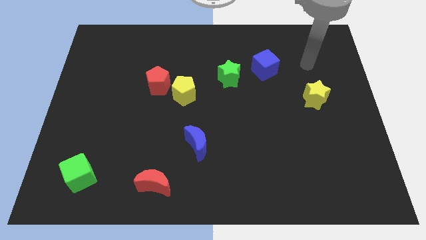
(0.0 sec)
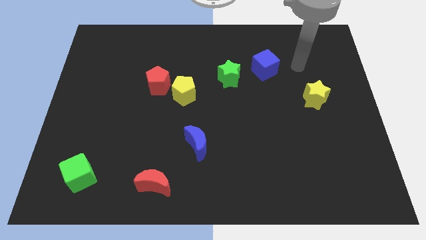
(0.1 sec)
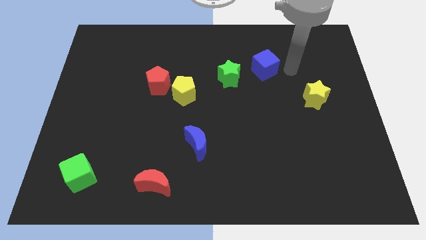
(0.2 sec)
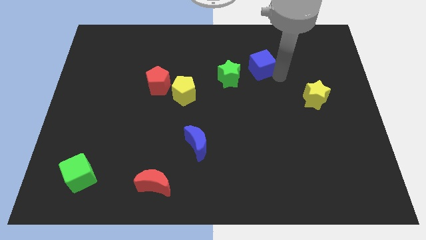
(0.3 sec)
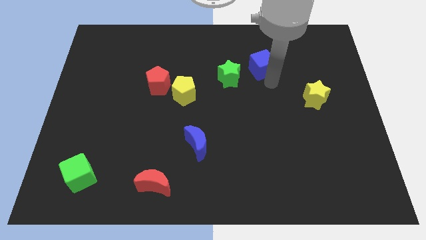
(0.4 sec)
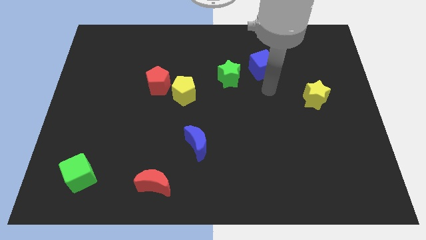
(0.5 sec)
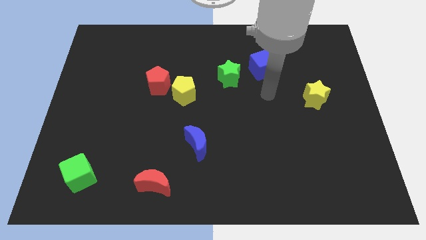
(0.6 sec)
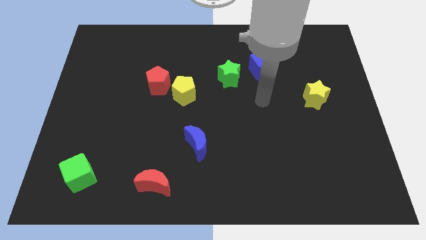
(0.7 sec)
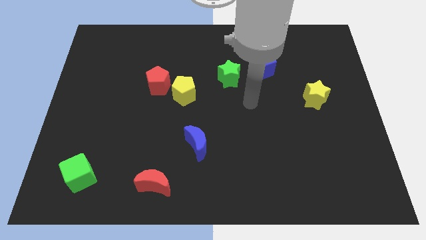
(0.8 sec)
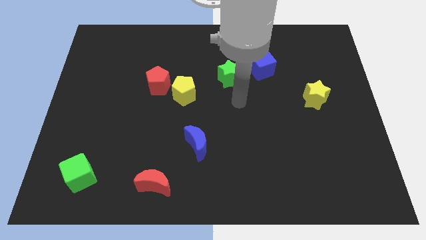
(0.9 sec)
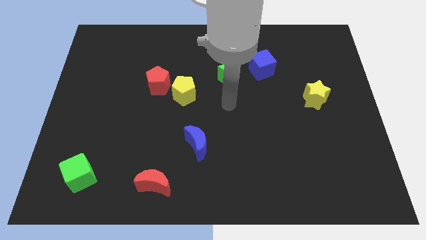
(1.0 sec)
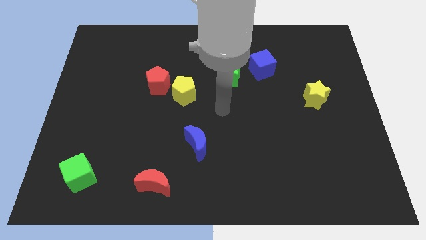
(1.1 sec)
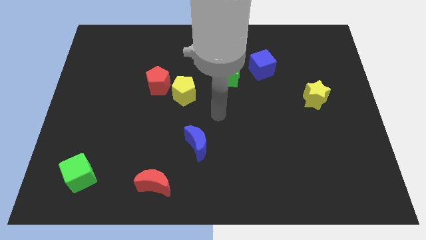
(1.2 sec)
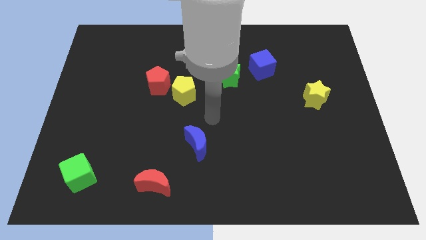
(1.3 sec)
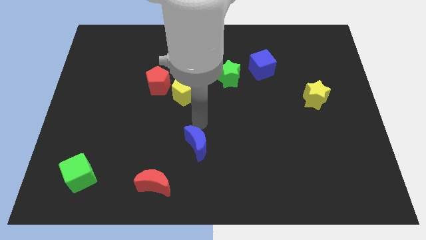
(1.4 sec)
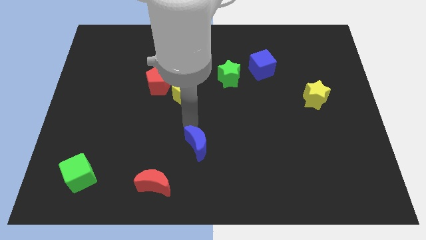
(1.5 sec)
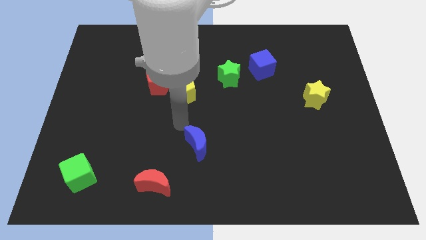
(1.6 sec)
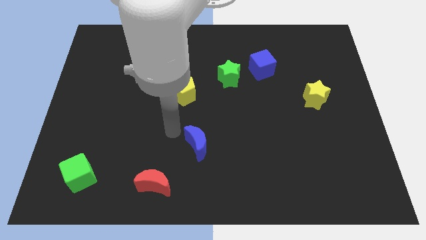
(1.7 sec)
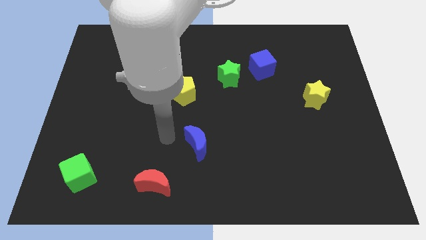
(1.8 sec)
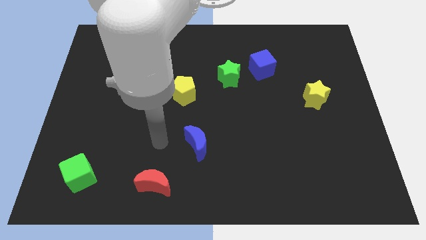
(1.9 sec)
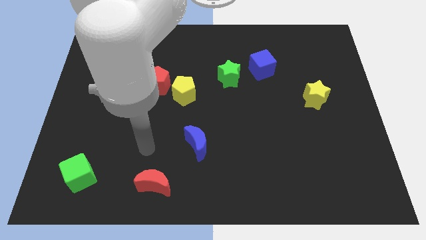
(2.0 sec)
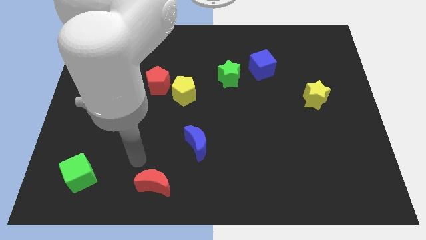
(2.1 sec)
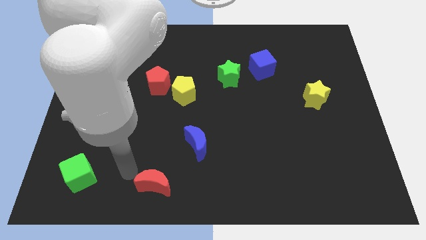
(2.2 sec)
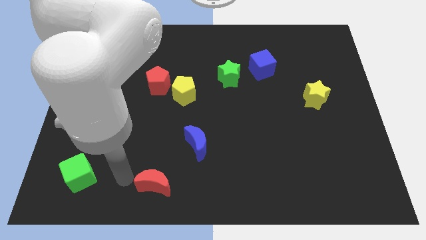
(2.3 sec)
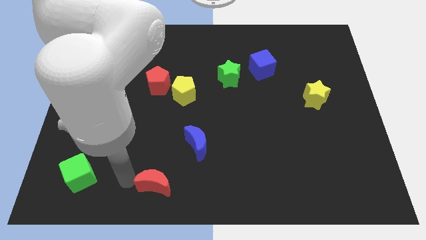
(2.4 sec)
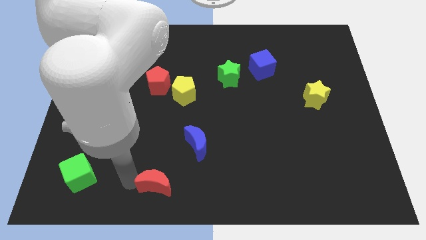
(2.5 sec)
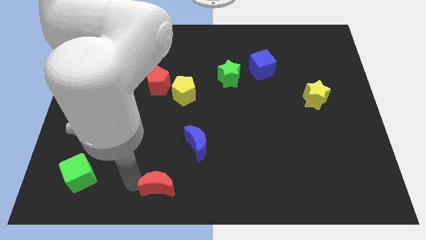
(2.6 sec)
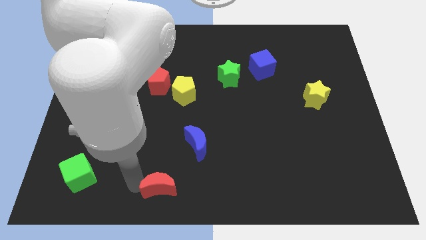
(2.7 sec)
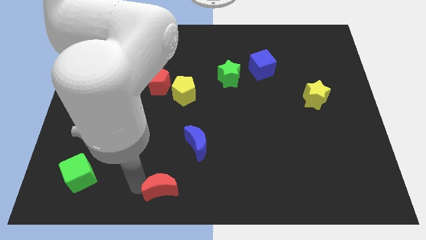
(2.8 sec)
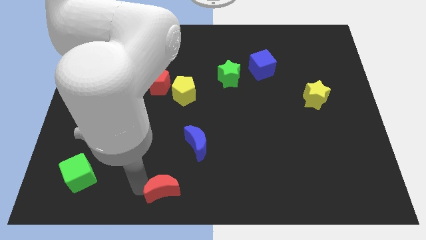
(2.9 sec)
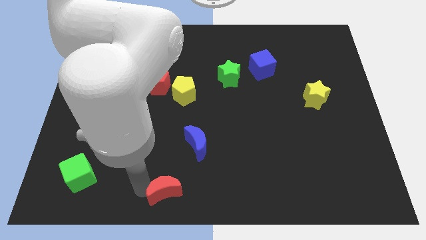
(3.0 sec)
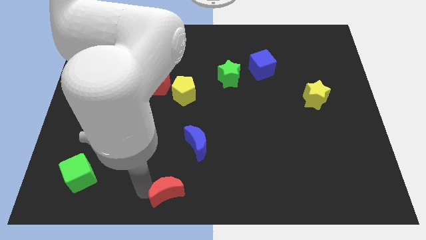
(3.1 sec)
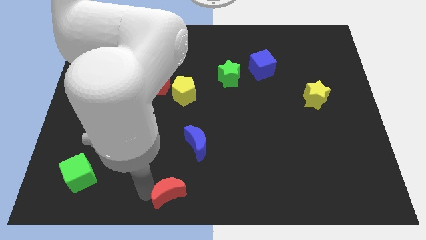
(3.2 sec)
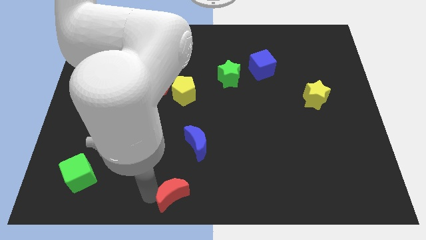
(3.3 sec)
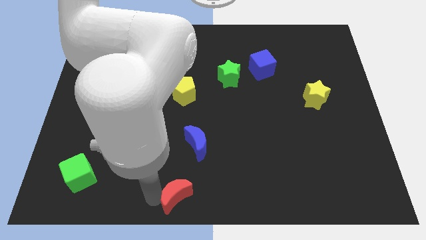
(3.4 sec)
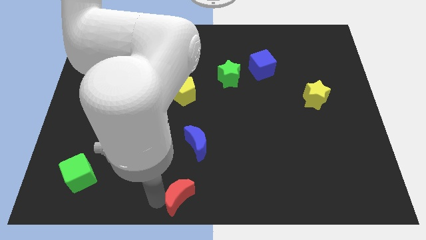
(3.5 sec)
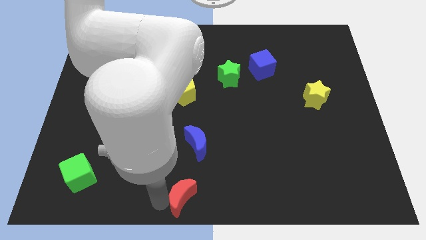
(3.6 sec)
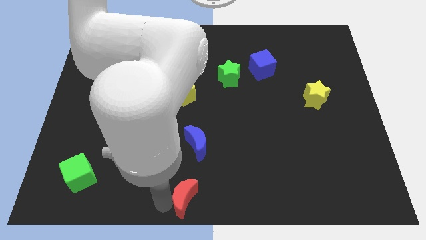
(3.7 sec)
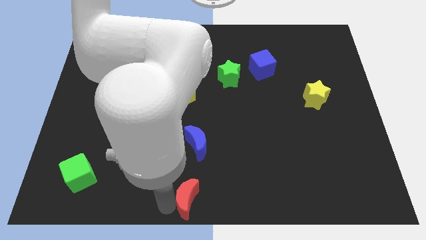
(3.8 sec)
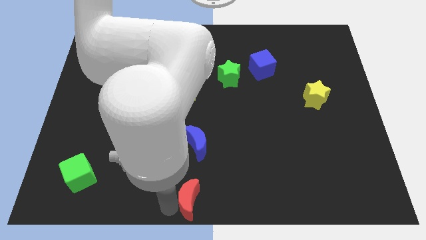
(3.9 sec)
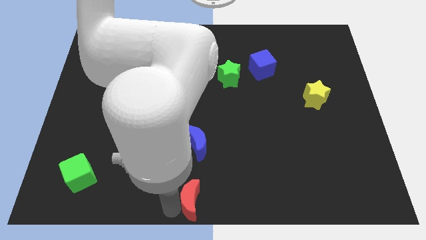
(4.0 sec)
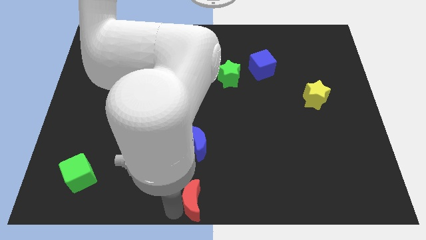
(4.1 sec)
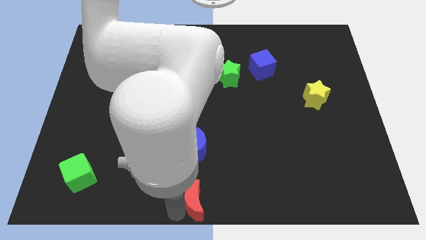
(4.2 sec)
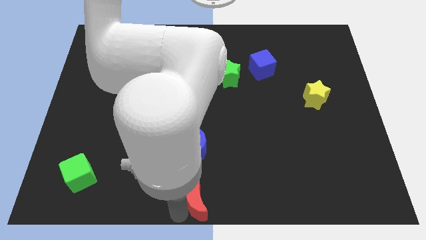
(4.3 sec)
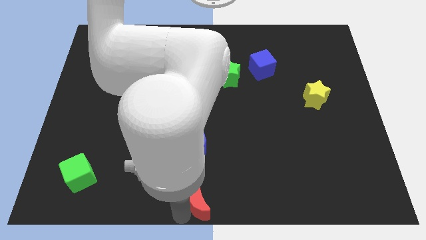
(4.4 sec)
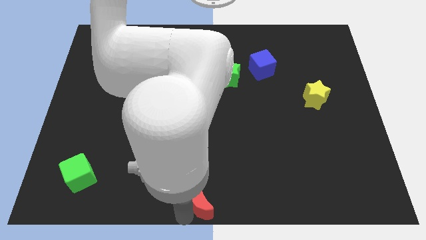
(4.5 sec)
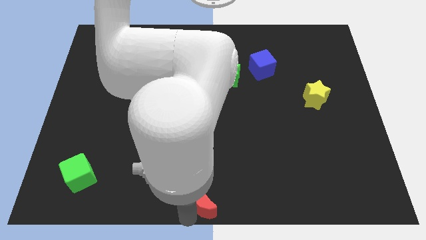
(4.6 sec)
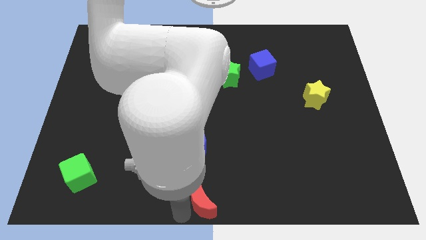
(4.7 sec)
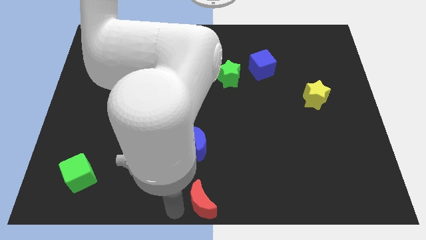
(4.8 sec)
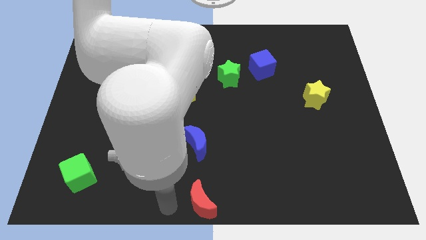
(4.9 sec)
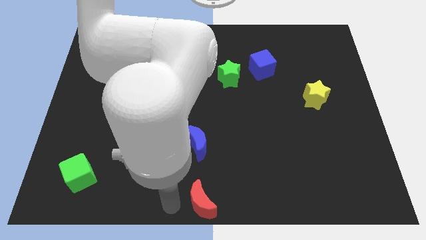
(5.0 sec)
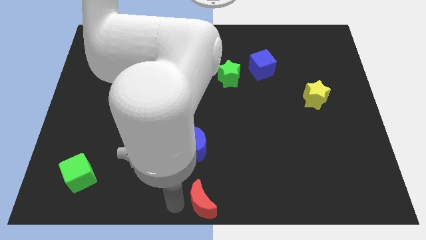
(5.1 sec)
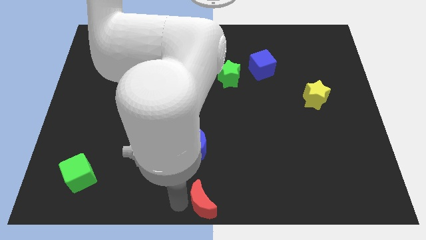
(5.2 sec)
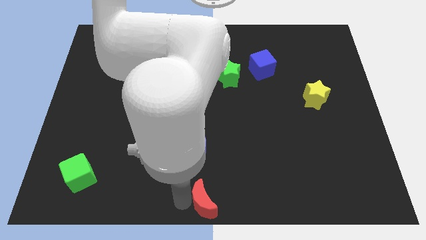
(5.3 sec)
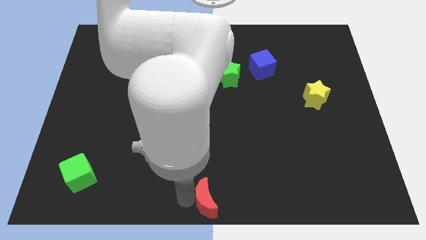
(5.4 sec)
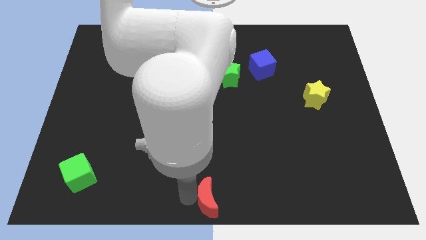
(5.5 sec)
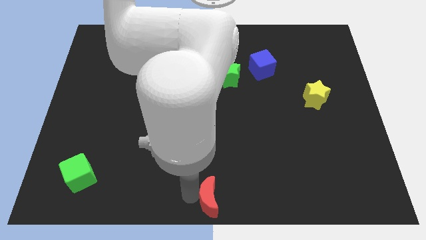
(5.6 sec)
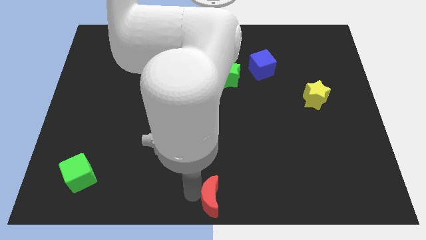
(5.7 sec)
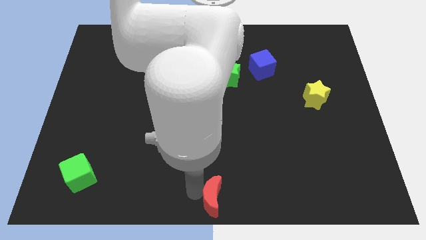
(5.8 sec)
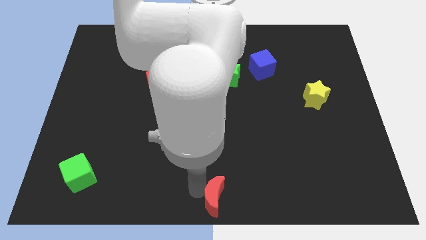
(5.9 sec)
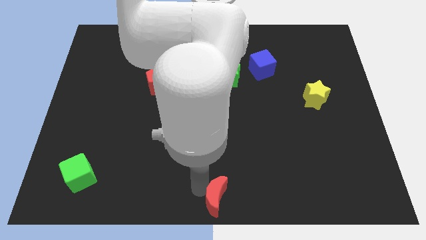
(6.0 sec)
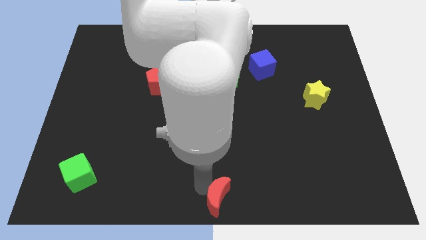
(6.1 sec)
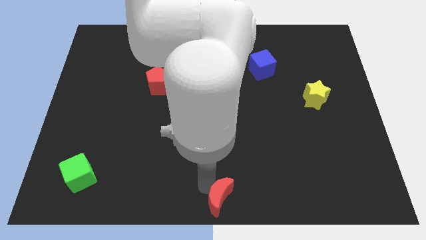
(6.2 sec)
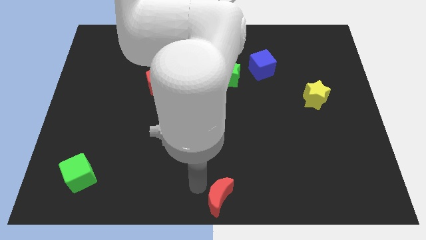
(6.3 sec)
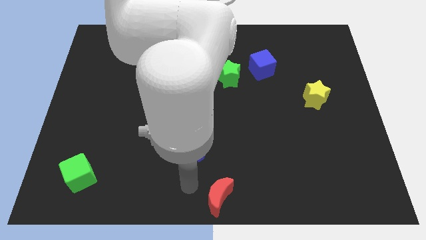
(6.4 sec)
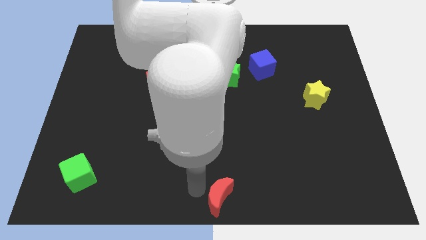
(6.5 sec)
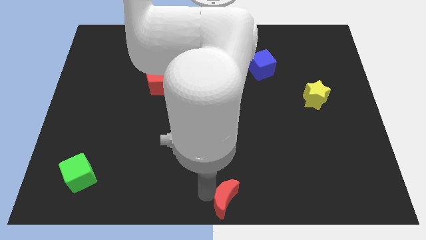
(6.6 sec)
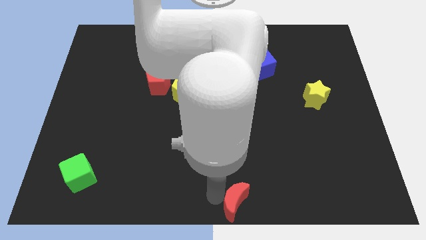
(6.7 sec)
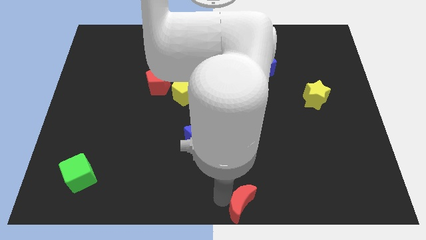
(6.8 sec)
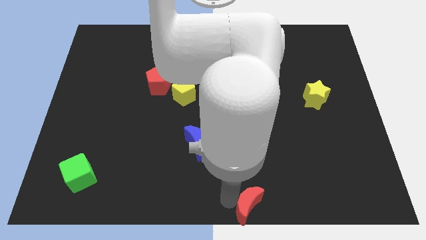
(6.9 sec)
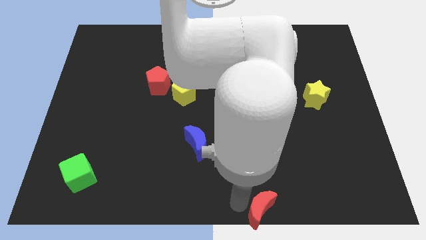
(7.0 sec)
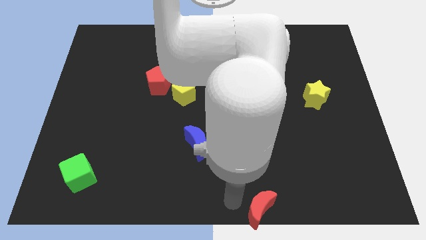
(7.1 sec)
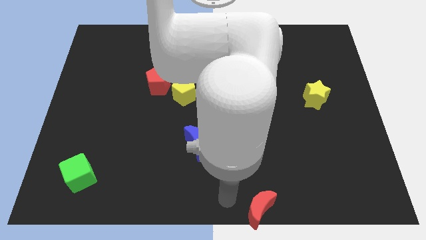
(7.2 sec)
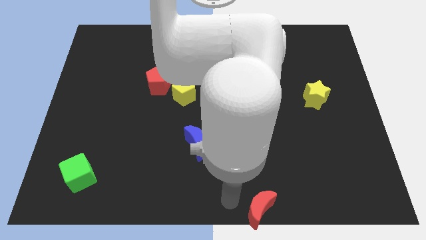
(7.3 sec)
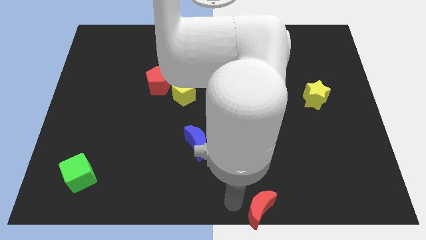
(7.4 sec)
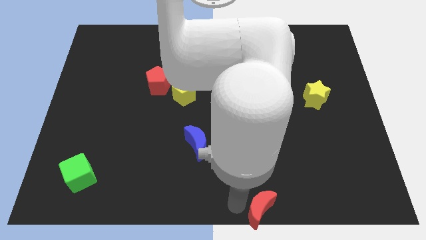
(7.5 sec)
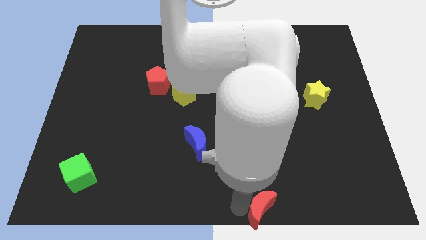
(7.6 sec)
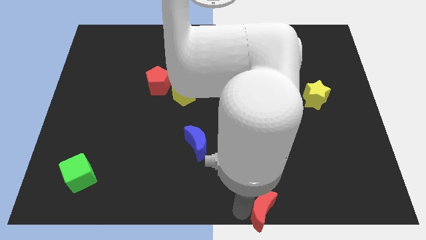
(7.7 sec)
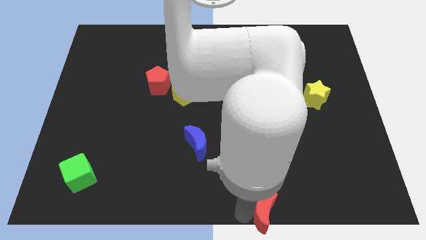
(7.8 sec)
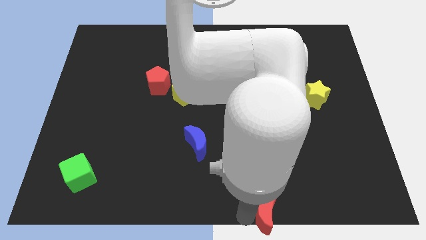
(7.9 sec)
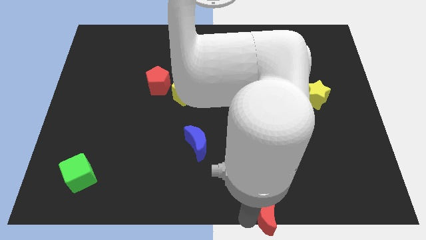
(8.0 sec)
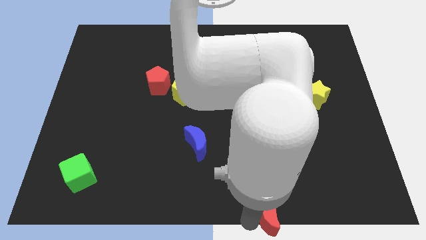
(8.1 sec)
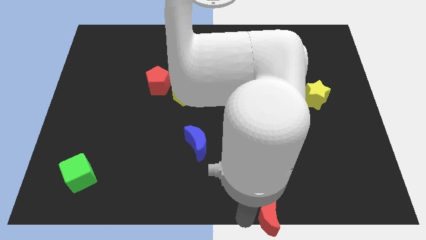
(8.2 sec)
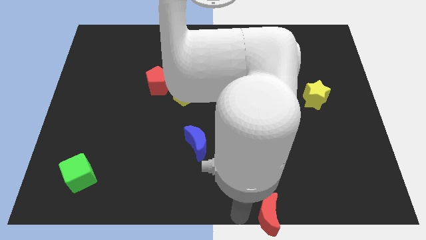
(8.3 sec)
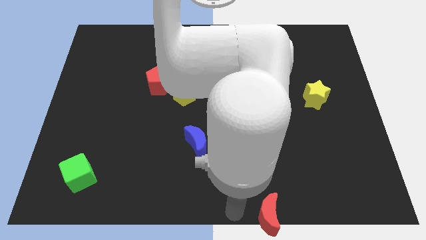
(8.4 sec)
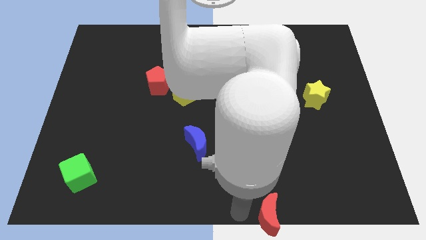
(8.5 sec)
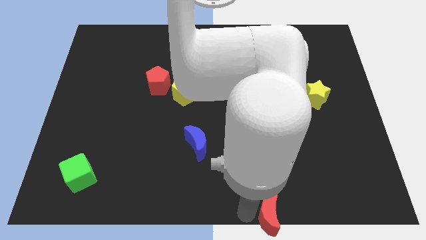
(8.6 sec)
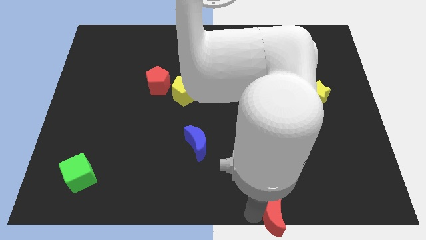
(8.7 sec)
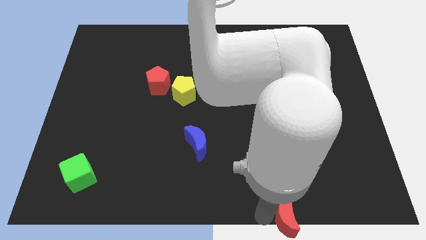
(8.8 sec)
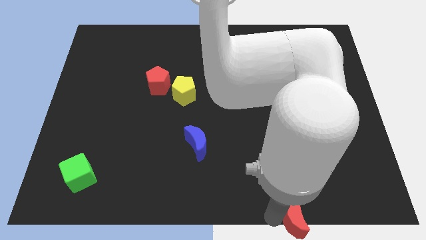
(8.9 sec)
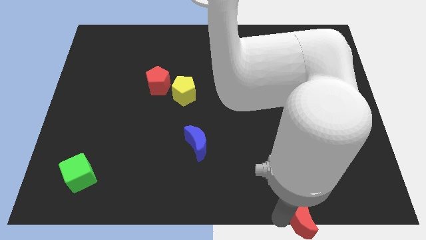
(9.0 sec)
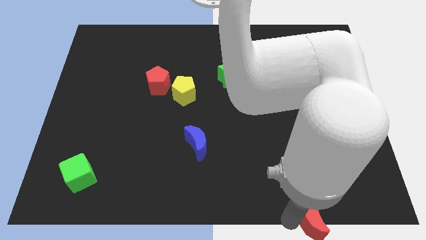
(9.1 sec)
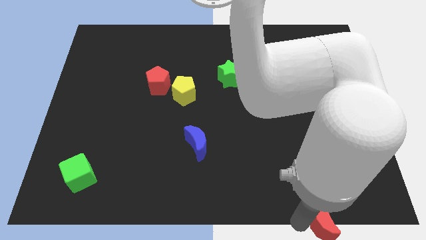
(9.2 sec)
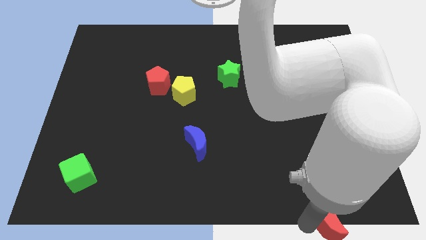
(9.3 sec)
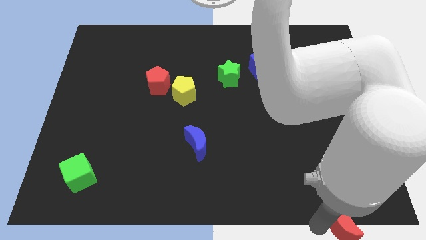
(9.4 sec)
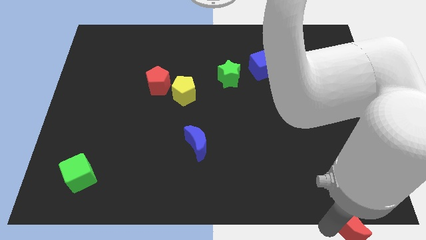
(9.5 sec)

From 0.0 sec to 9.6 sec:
put the red moon to the bottom right
